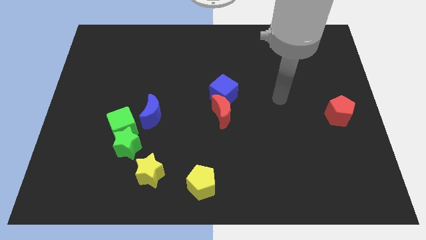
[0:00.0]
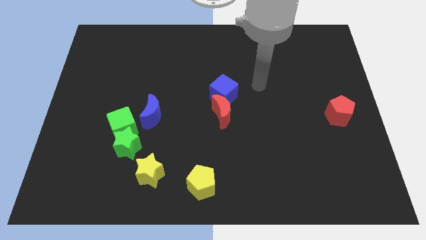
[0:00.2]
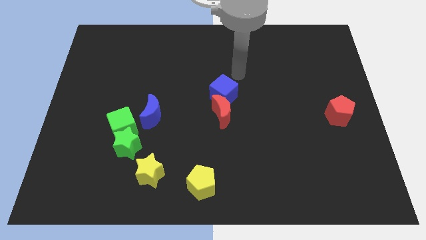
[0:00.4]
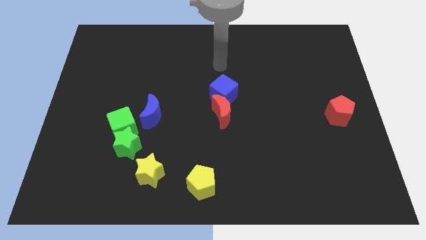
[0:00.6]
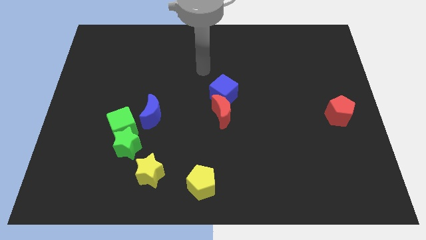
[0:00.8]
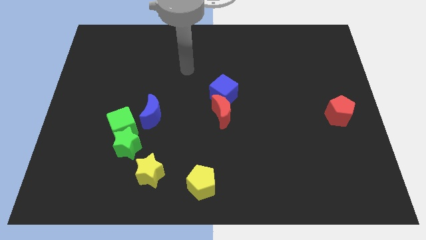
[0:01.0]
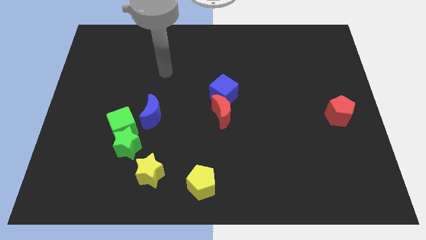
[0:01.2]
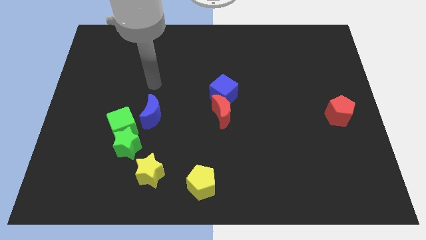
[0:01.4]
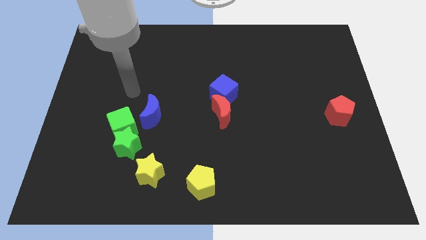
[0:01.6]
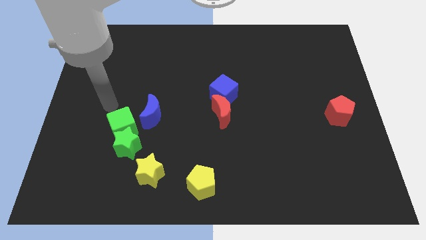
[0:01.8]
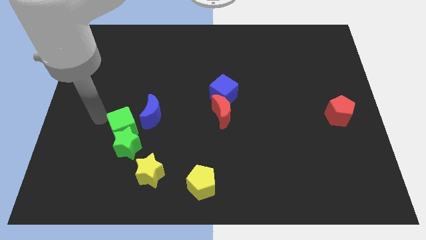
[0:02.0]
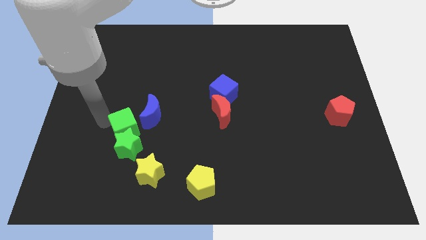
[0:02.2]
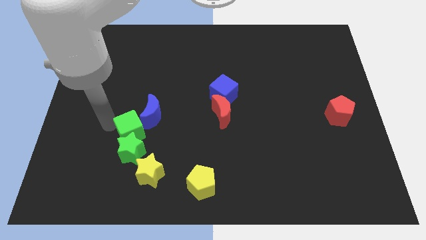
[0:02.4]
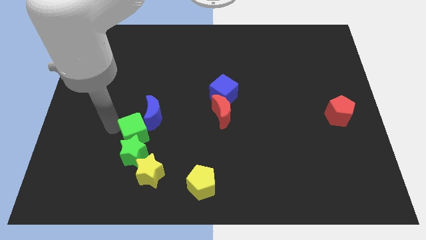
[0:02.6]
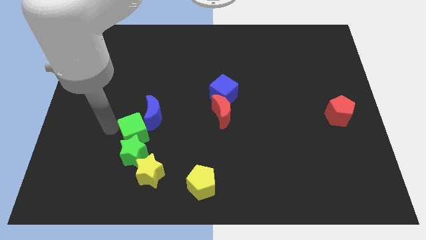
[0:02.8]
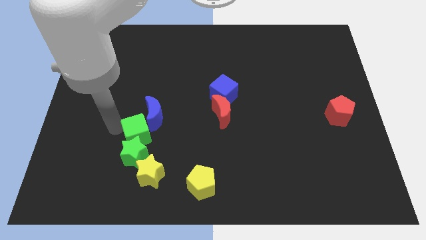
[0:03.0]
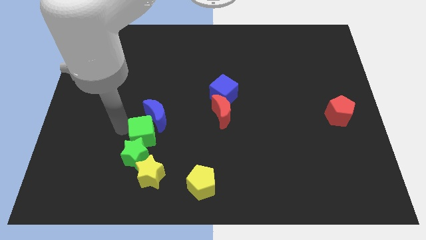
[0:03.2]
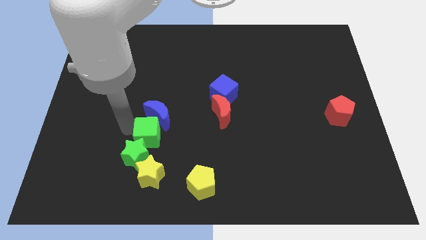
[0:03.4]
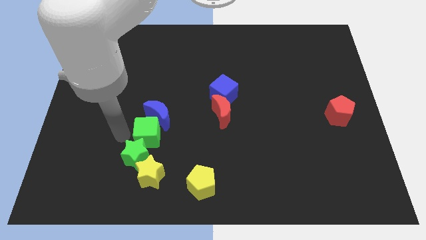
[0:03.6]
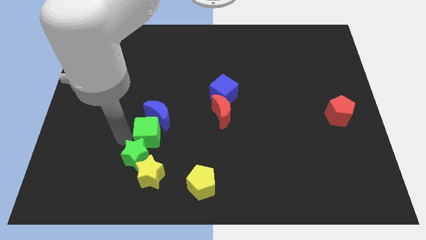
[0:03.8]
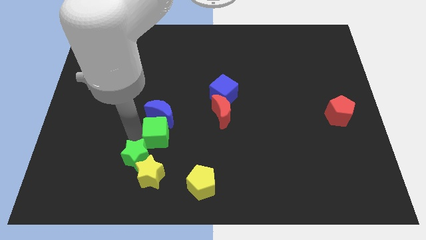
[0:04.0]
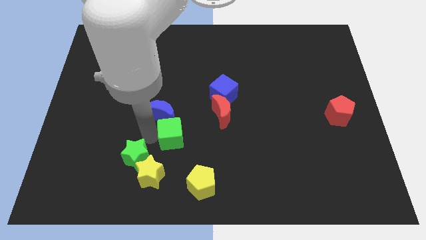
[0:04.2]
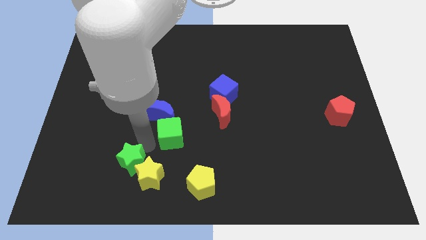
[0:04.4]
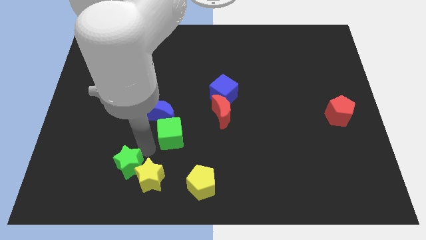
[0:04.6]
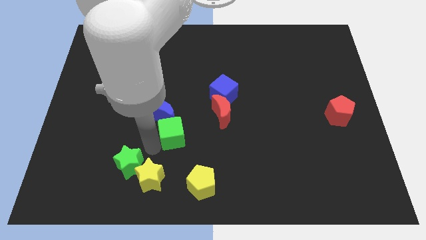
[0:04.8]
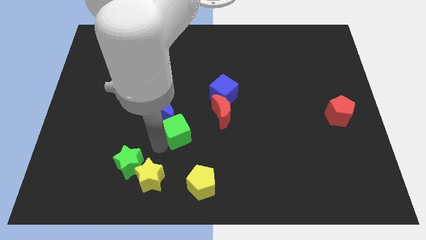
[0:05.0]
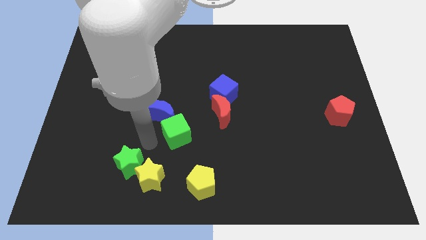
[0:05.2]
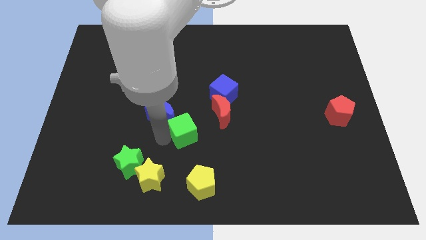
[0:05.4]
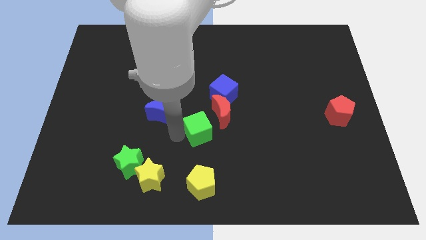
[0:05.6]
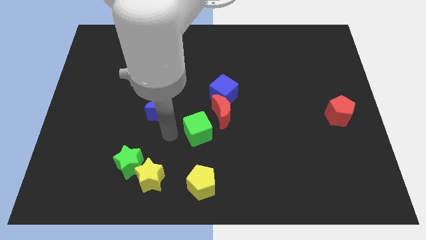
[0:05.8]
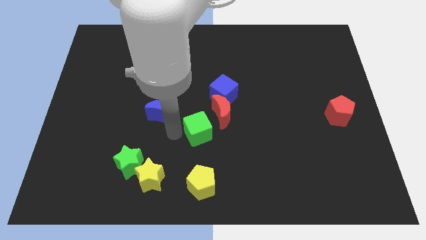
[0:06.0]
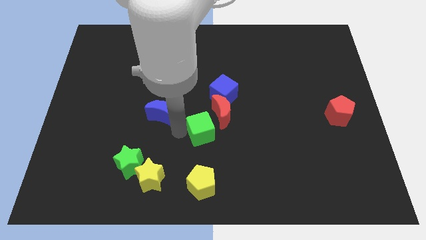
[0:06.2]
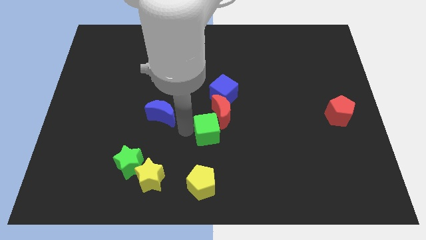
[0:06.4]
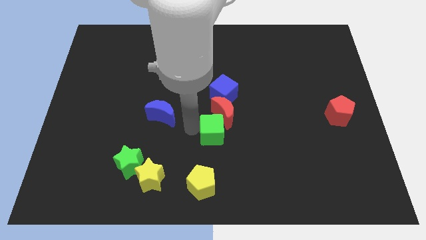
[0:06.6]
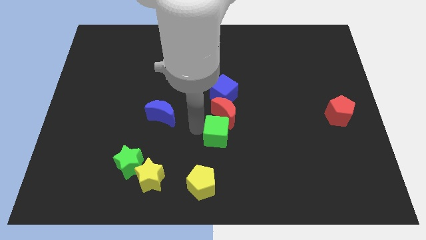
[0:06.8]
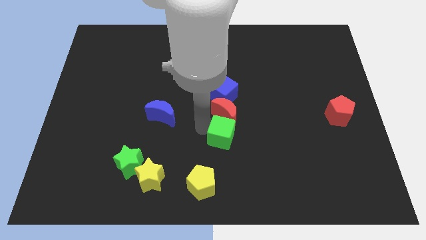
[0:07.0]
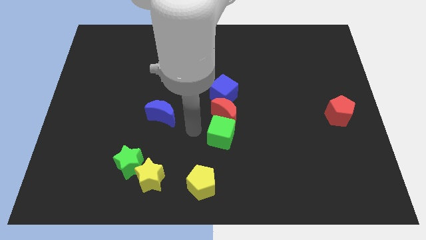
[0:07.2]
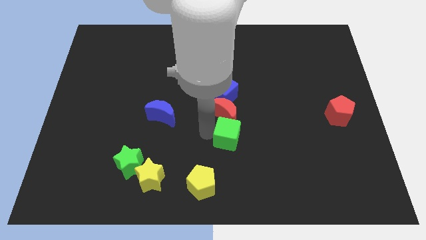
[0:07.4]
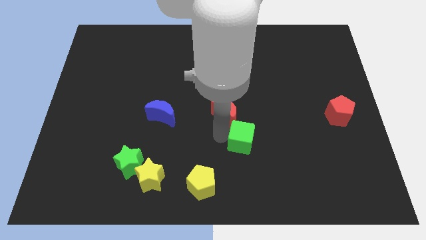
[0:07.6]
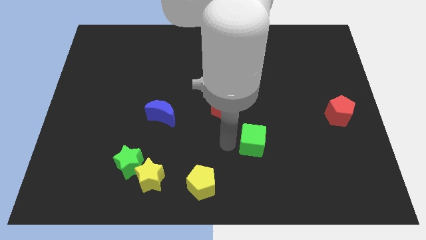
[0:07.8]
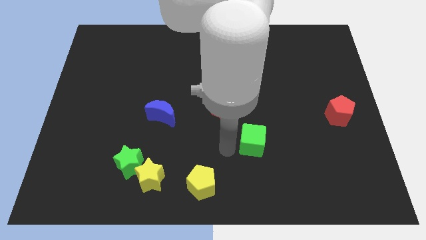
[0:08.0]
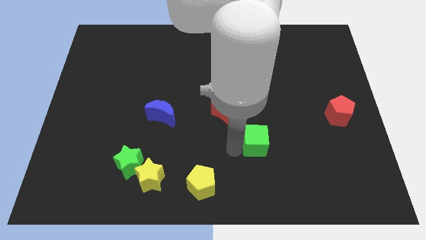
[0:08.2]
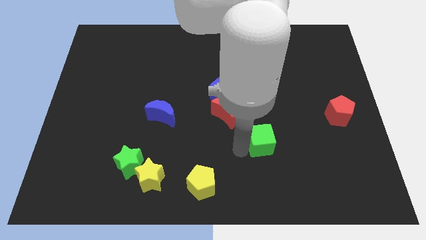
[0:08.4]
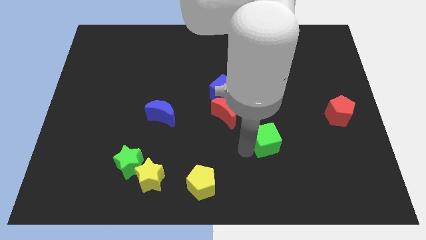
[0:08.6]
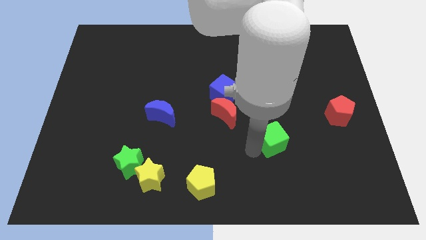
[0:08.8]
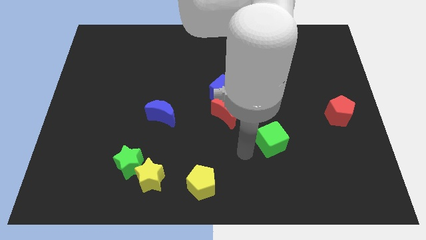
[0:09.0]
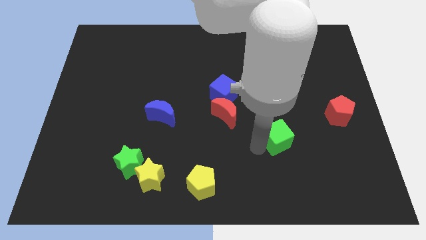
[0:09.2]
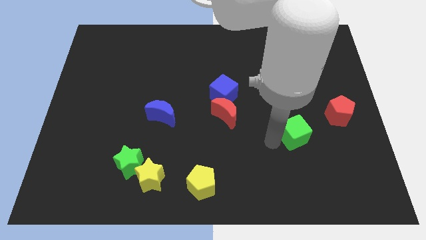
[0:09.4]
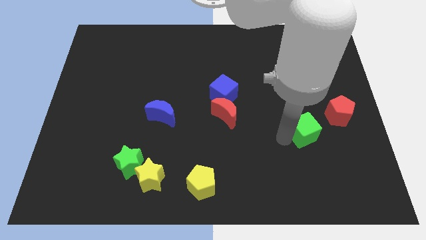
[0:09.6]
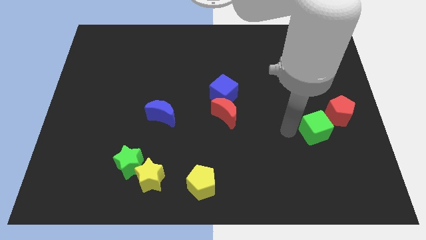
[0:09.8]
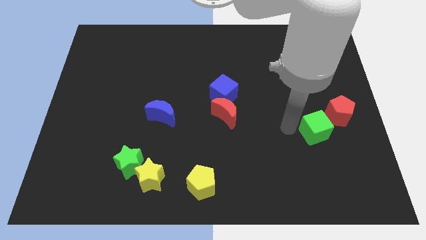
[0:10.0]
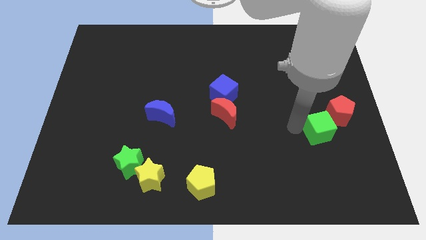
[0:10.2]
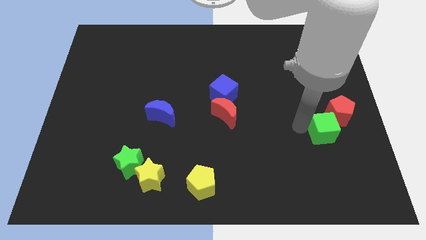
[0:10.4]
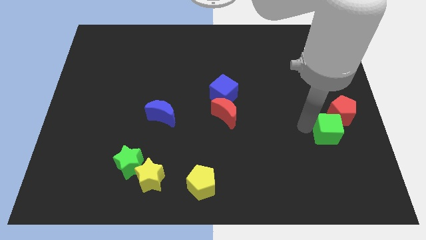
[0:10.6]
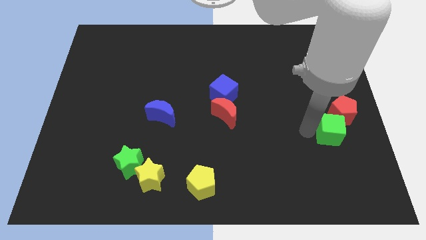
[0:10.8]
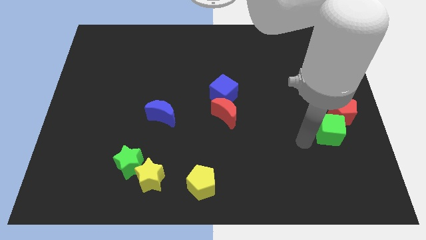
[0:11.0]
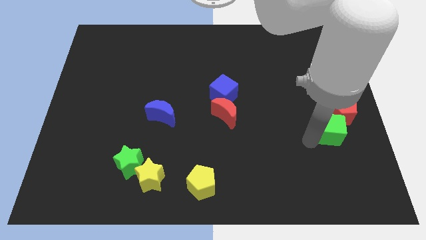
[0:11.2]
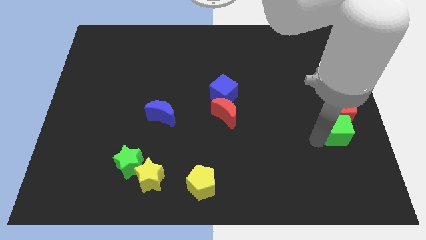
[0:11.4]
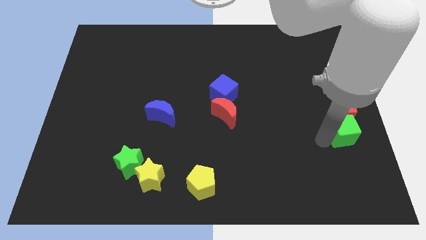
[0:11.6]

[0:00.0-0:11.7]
put the green cube to the right side

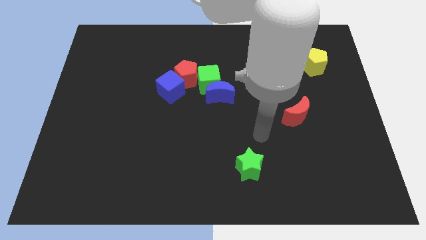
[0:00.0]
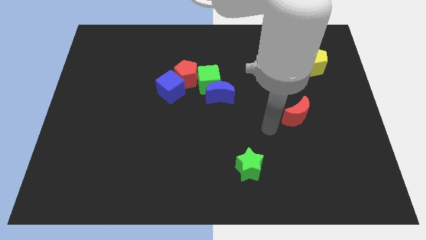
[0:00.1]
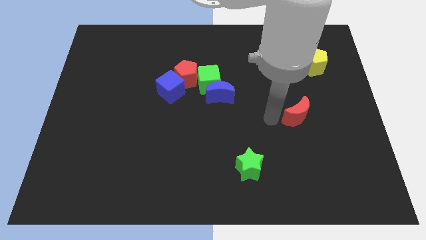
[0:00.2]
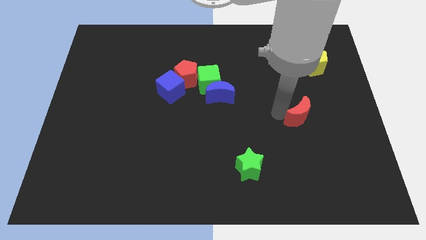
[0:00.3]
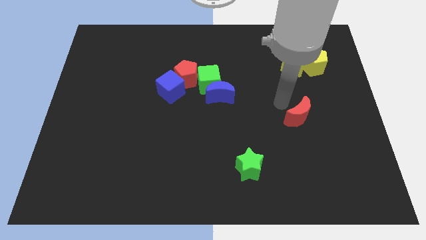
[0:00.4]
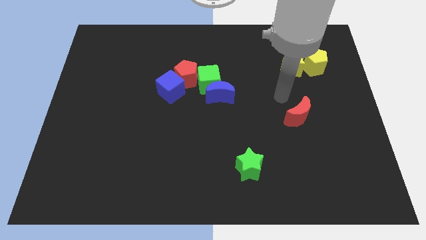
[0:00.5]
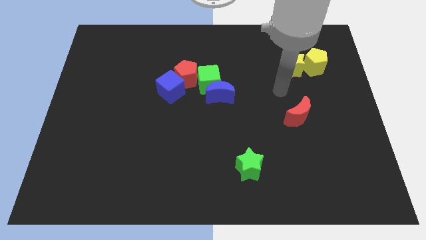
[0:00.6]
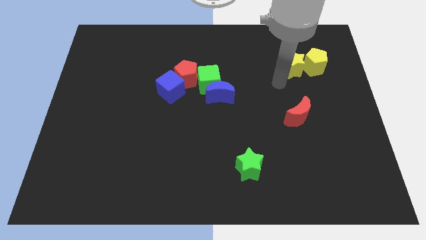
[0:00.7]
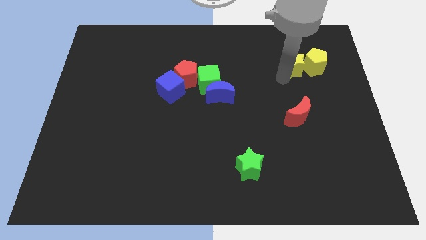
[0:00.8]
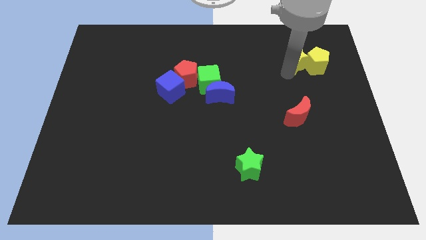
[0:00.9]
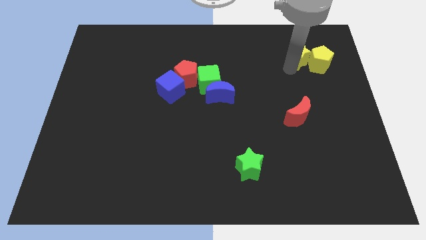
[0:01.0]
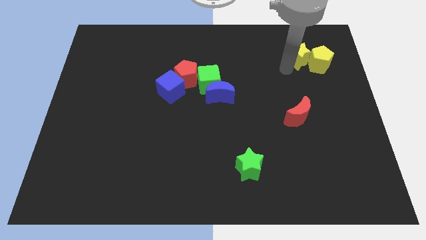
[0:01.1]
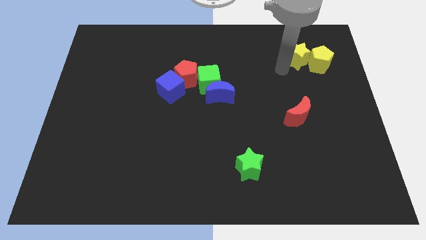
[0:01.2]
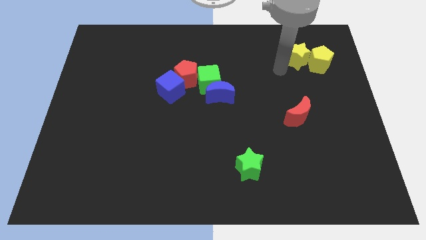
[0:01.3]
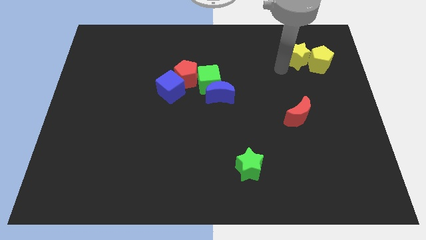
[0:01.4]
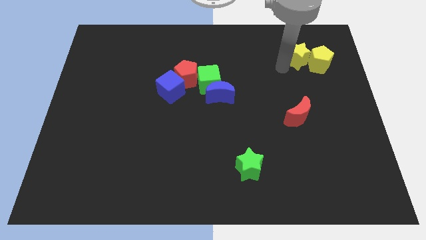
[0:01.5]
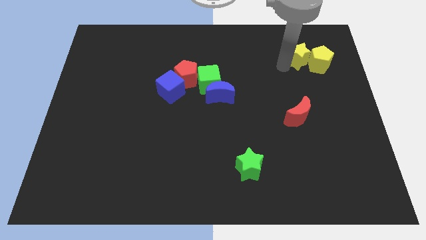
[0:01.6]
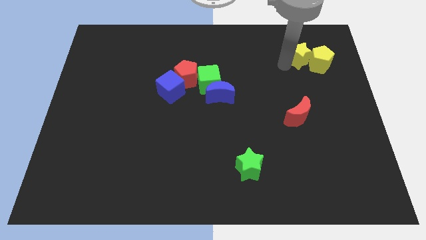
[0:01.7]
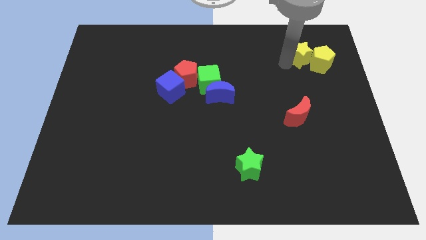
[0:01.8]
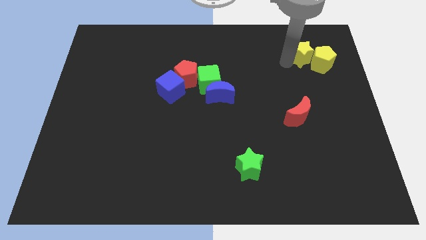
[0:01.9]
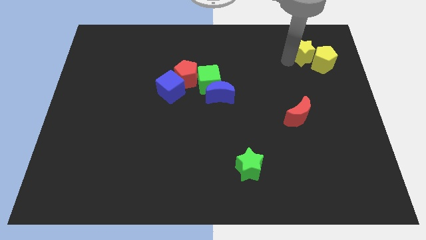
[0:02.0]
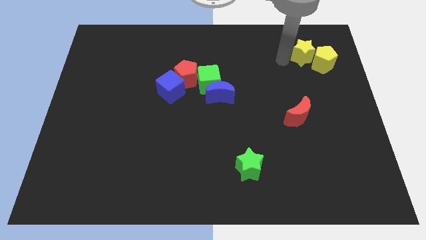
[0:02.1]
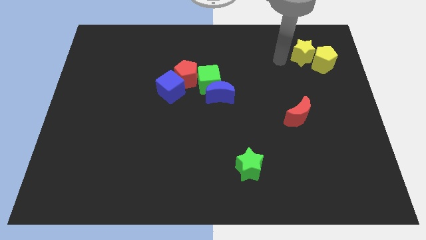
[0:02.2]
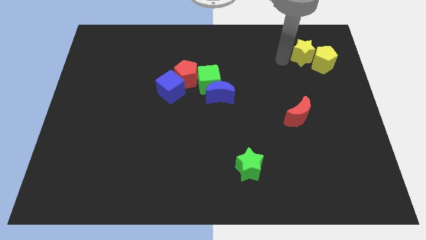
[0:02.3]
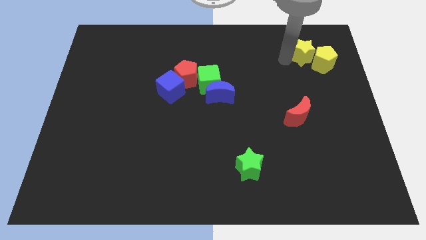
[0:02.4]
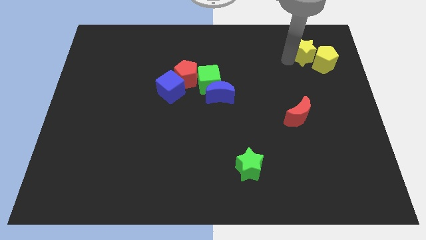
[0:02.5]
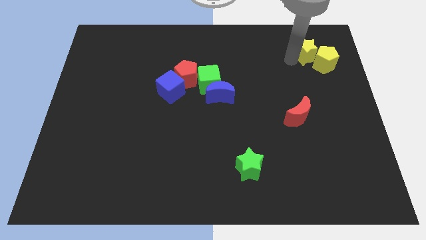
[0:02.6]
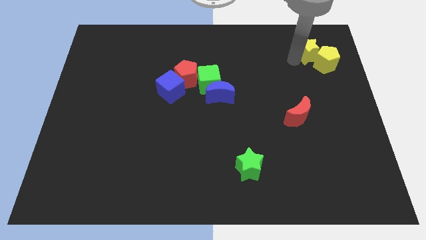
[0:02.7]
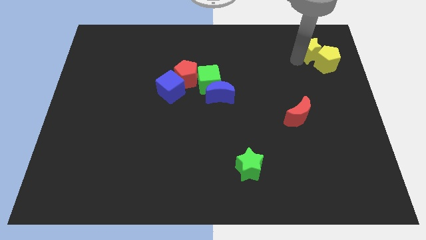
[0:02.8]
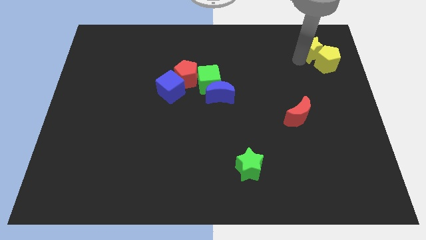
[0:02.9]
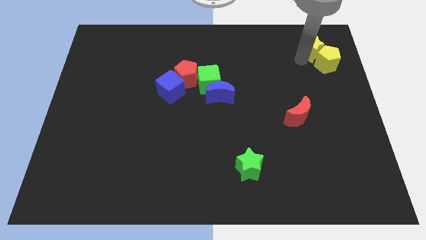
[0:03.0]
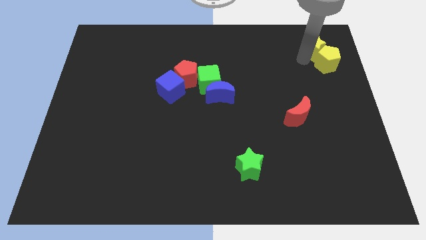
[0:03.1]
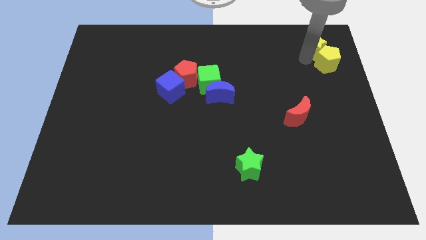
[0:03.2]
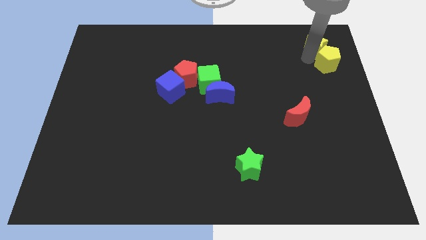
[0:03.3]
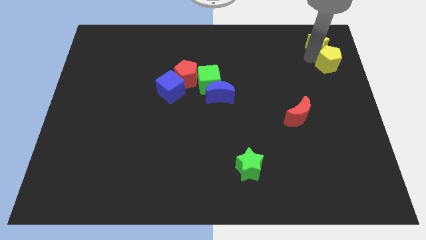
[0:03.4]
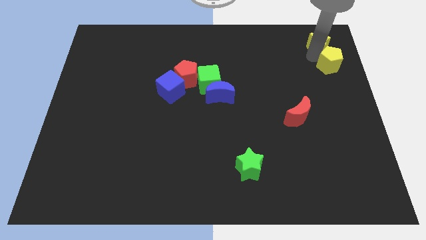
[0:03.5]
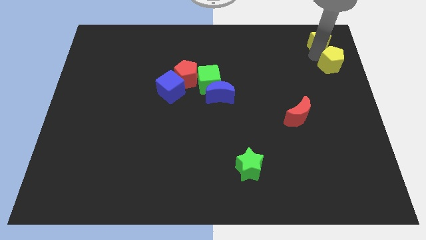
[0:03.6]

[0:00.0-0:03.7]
put the yellow star to the upper right corner
